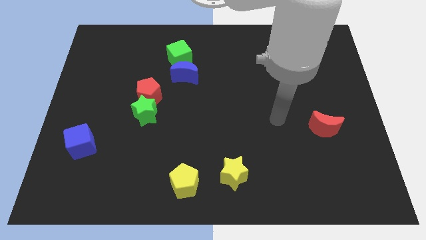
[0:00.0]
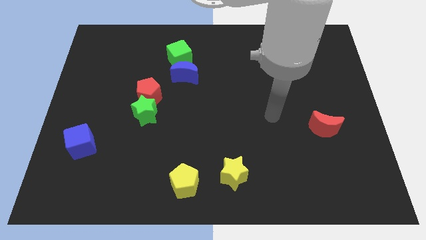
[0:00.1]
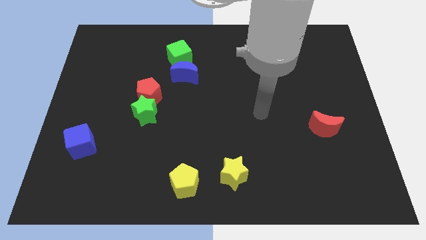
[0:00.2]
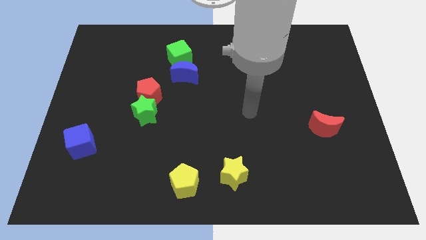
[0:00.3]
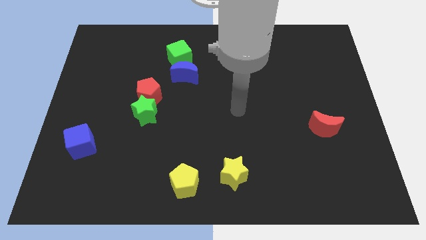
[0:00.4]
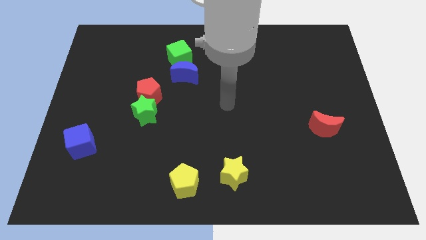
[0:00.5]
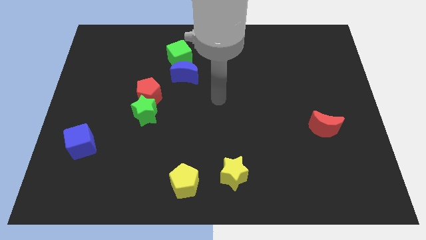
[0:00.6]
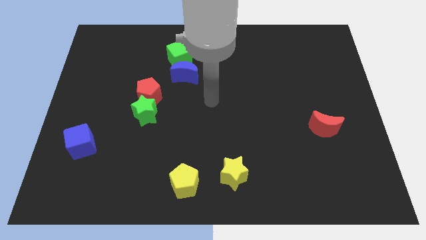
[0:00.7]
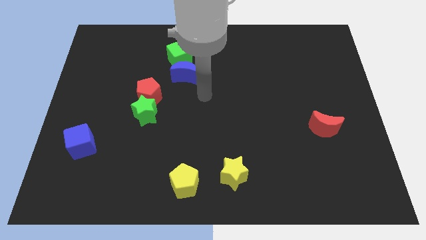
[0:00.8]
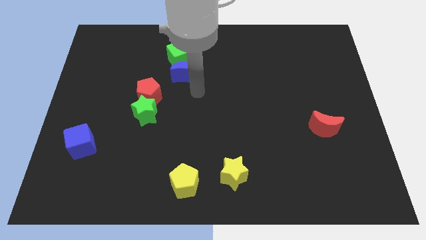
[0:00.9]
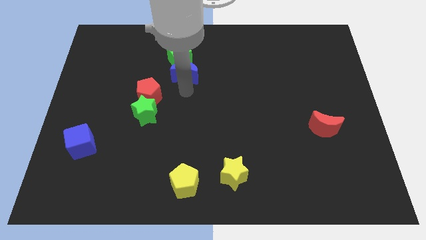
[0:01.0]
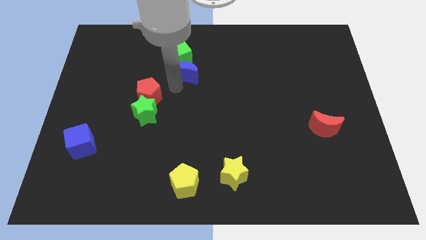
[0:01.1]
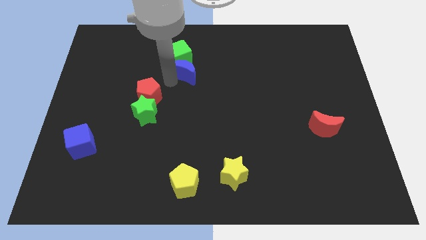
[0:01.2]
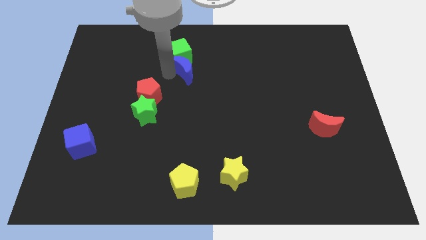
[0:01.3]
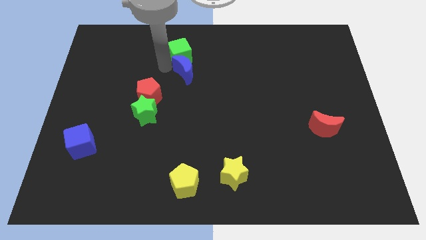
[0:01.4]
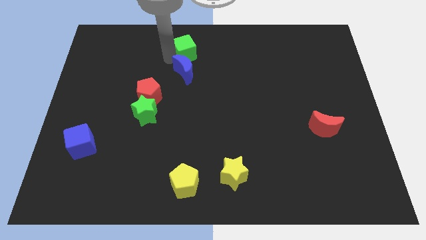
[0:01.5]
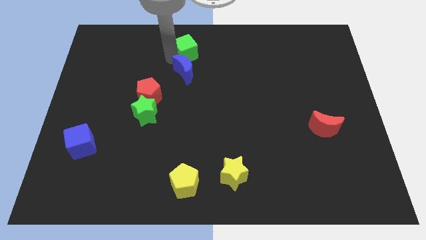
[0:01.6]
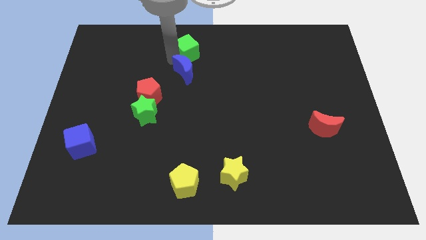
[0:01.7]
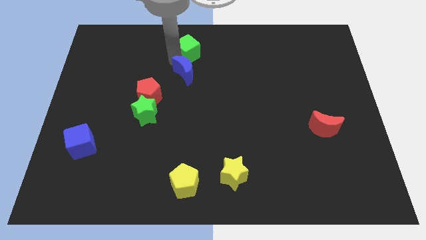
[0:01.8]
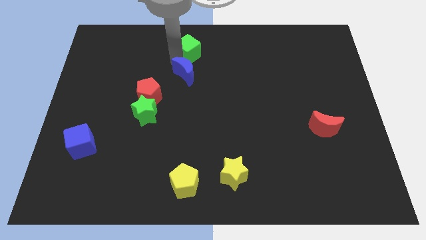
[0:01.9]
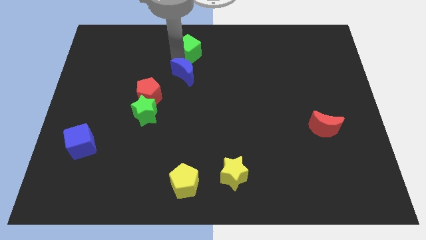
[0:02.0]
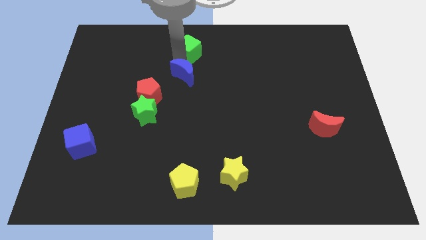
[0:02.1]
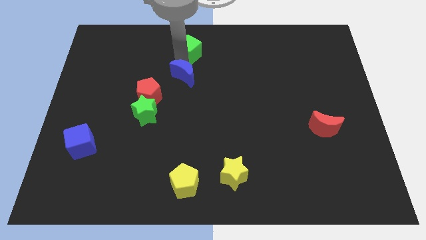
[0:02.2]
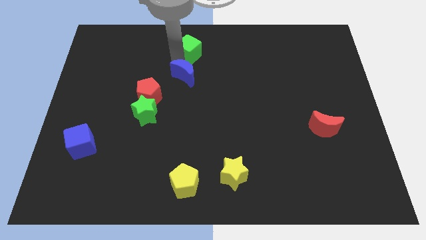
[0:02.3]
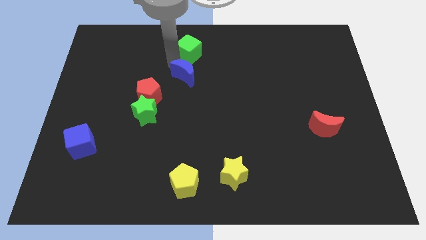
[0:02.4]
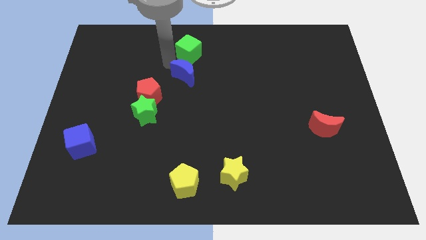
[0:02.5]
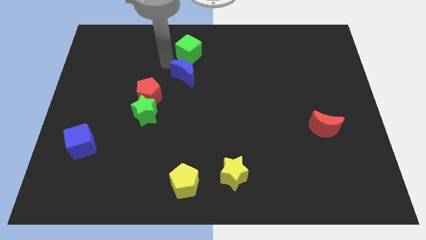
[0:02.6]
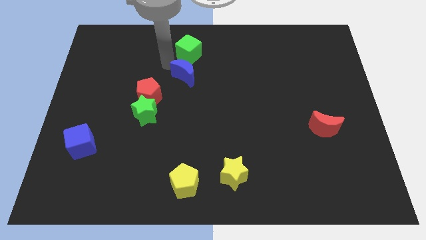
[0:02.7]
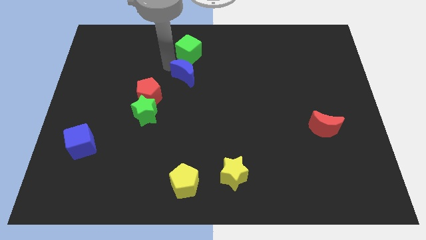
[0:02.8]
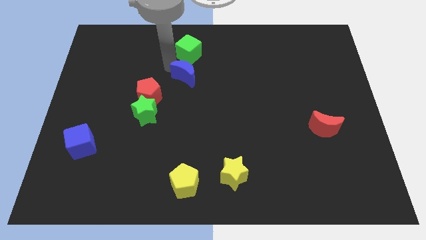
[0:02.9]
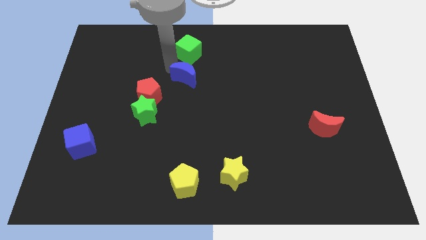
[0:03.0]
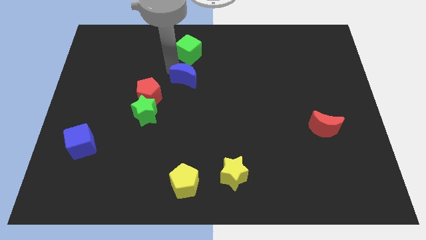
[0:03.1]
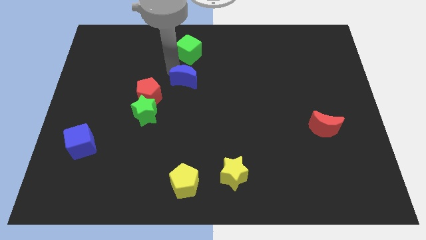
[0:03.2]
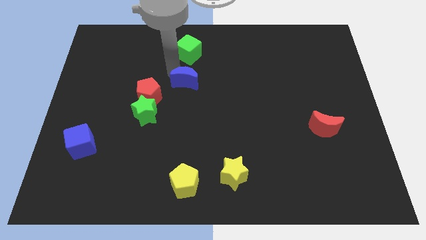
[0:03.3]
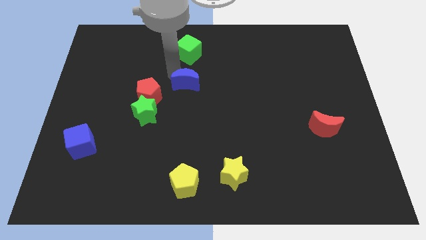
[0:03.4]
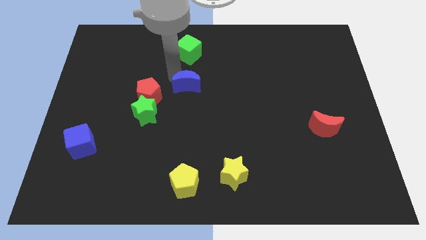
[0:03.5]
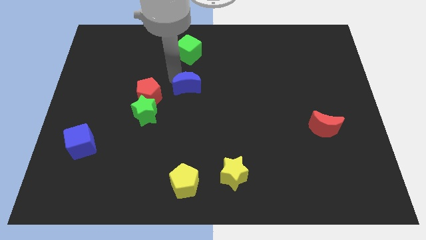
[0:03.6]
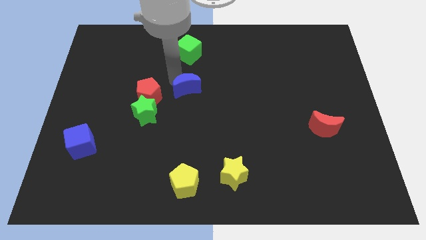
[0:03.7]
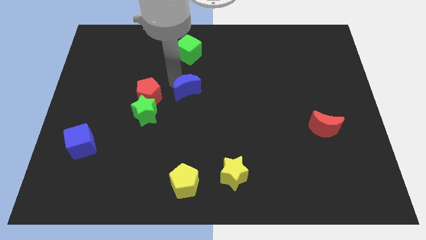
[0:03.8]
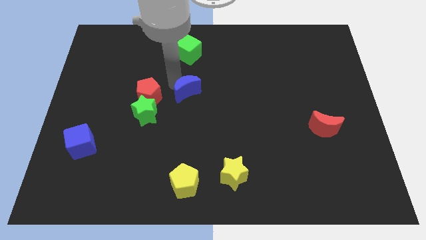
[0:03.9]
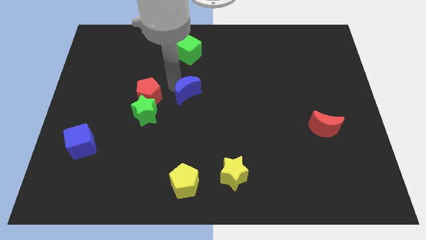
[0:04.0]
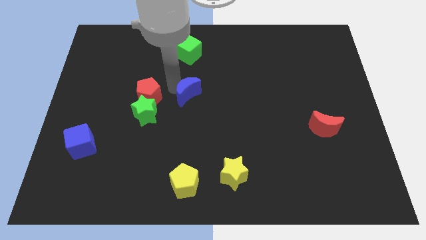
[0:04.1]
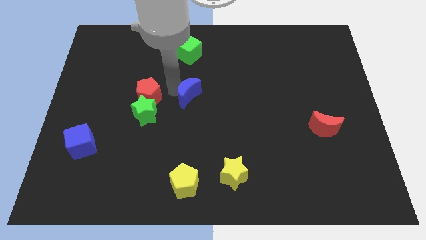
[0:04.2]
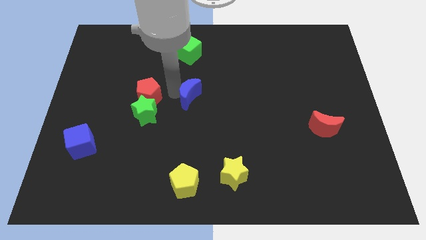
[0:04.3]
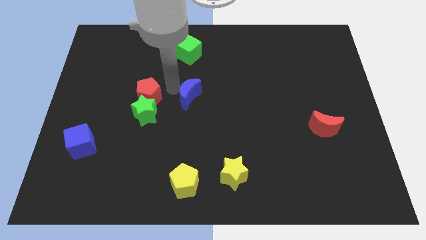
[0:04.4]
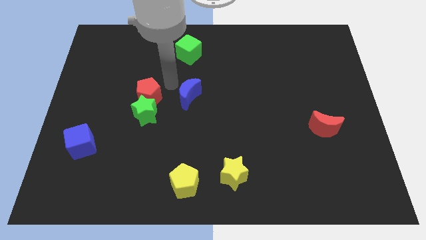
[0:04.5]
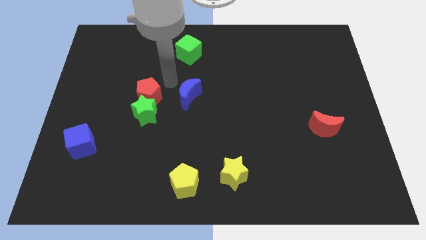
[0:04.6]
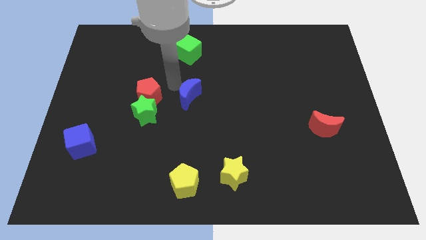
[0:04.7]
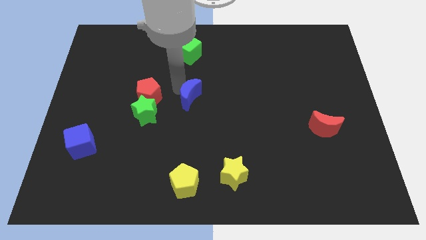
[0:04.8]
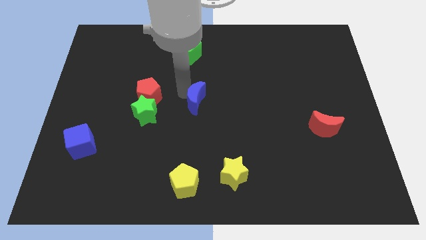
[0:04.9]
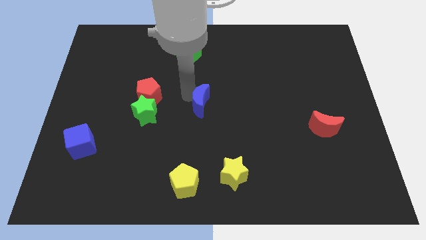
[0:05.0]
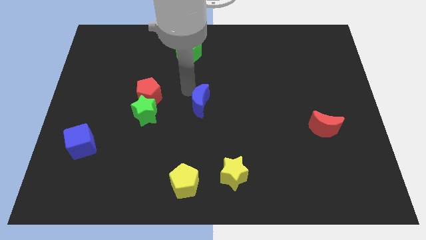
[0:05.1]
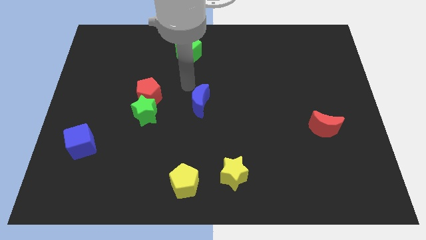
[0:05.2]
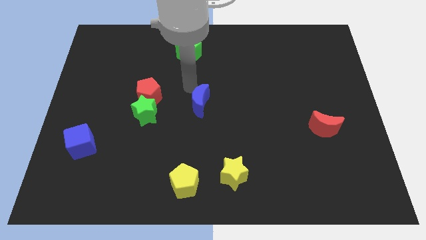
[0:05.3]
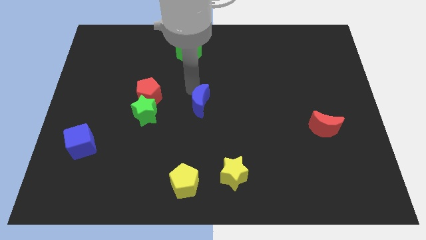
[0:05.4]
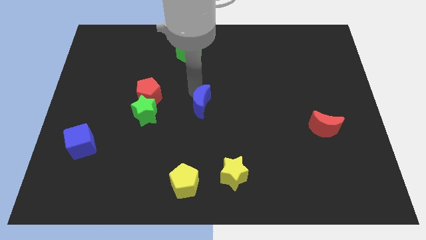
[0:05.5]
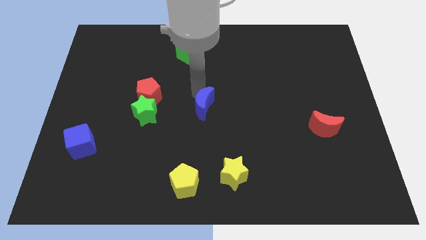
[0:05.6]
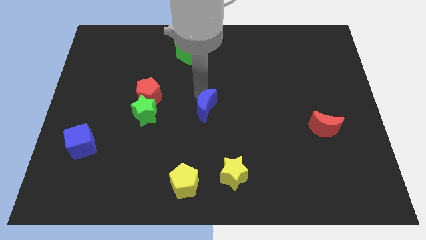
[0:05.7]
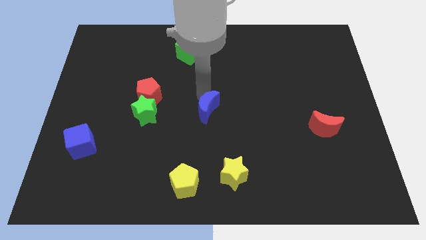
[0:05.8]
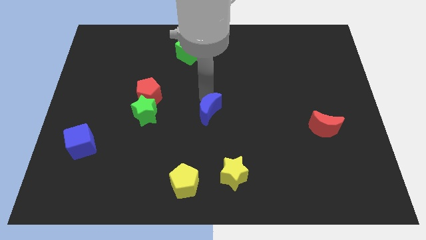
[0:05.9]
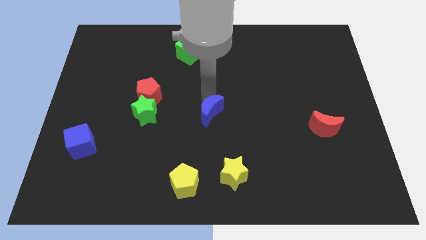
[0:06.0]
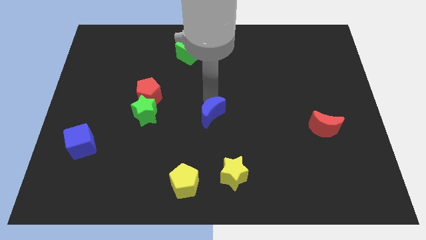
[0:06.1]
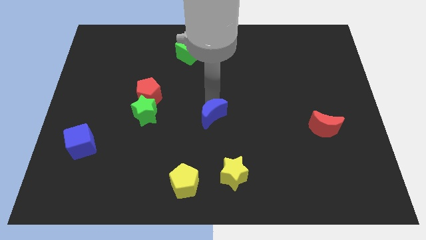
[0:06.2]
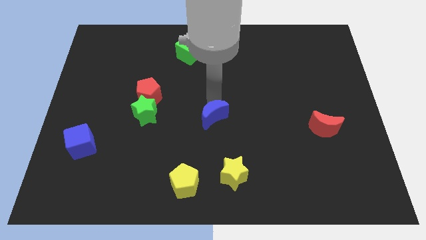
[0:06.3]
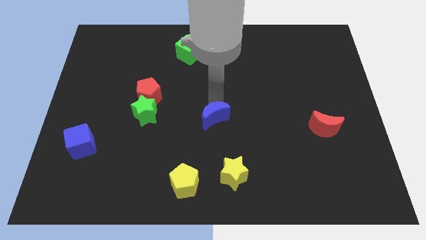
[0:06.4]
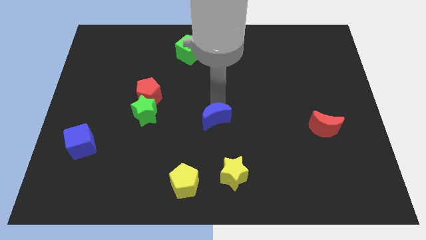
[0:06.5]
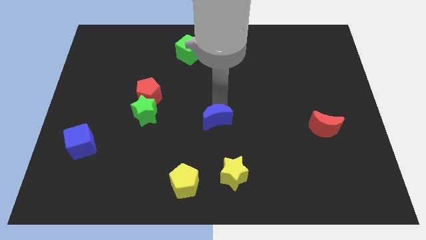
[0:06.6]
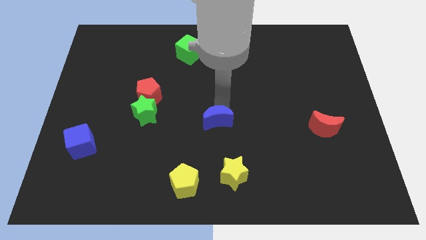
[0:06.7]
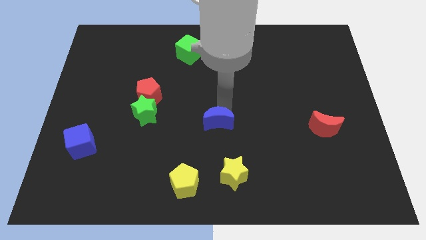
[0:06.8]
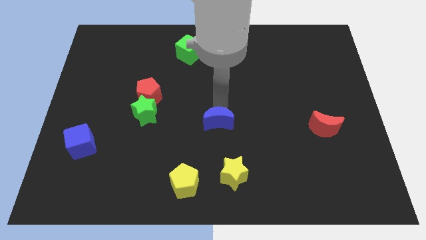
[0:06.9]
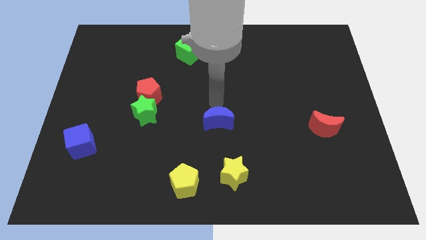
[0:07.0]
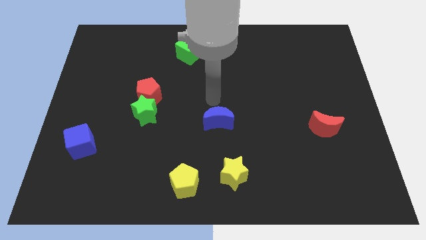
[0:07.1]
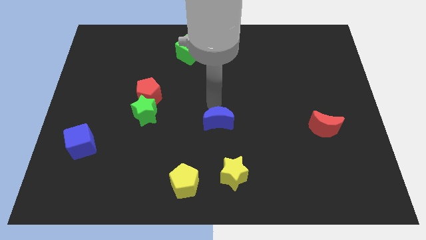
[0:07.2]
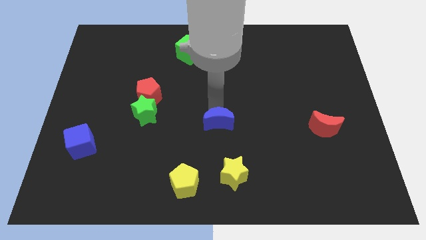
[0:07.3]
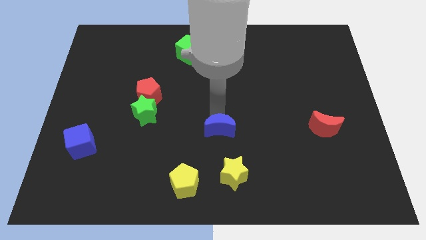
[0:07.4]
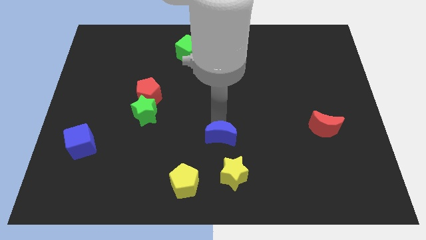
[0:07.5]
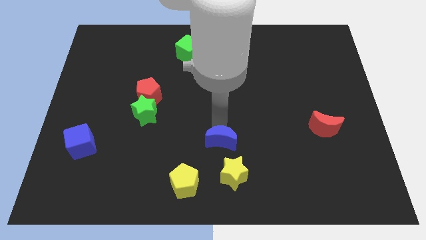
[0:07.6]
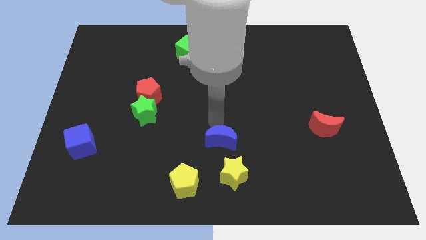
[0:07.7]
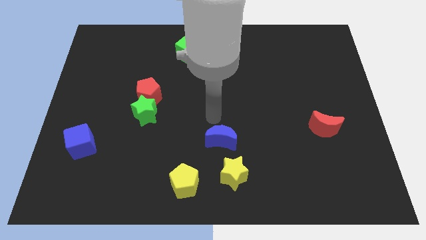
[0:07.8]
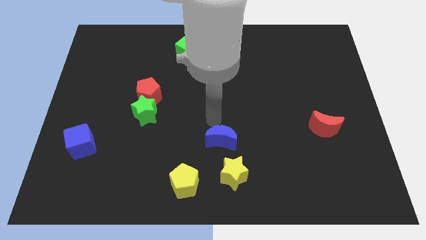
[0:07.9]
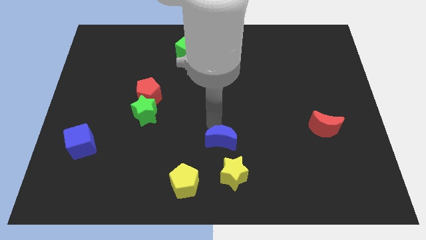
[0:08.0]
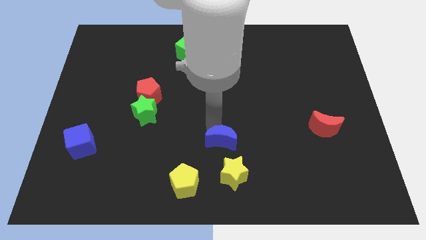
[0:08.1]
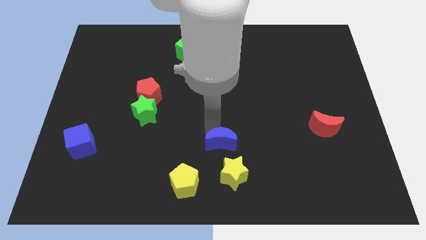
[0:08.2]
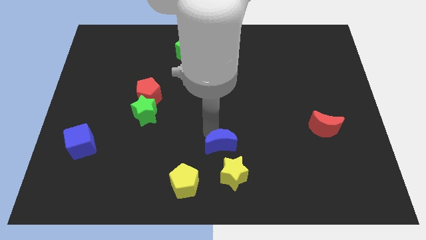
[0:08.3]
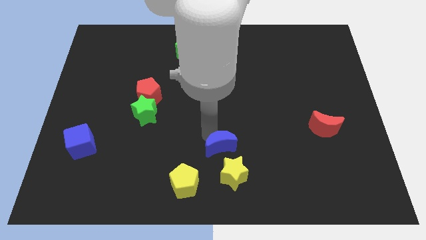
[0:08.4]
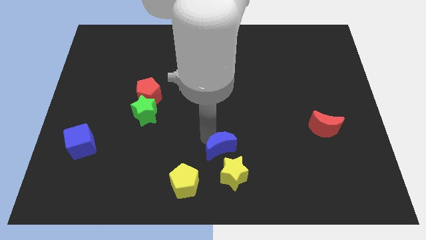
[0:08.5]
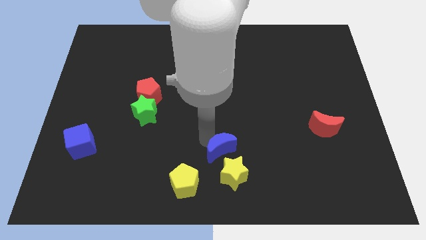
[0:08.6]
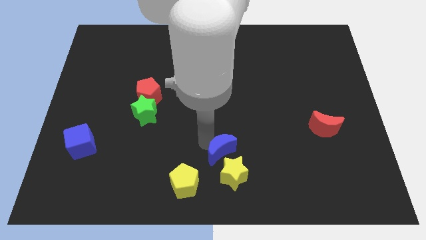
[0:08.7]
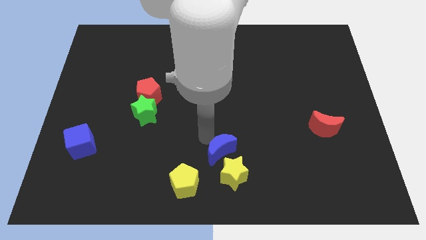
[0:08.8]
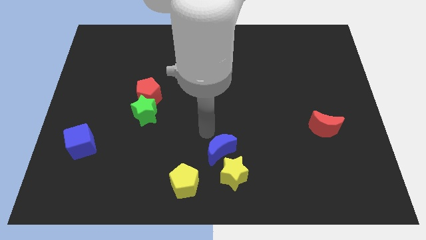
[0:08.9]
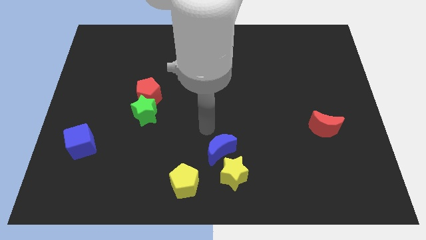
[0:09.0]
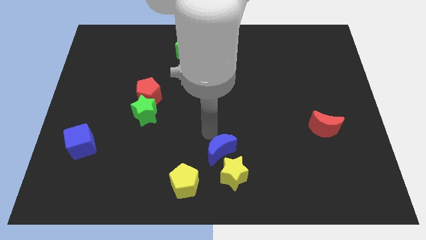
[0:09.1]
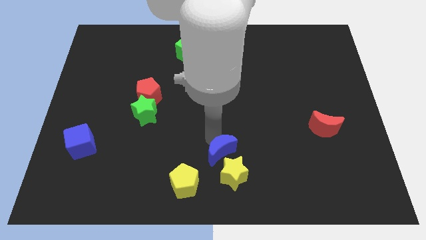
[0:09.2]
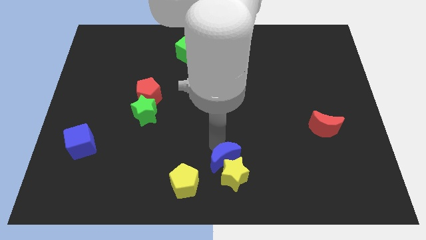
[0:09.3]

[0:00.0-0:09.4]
slide the blue moon towards the yellow star
